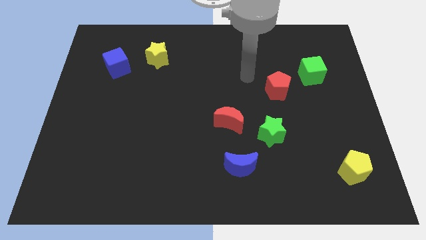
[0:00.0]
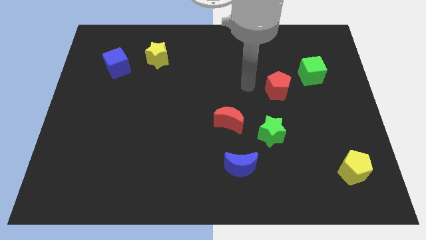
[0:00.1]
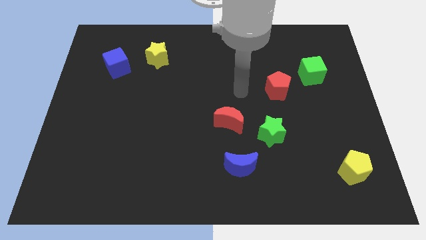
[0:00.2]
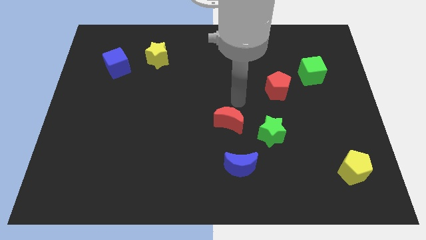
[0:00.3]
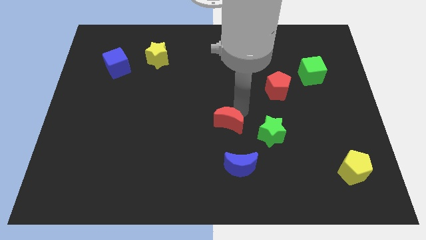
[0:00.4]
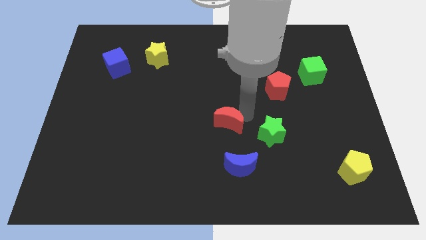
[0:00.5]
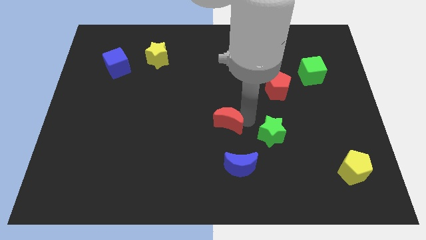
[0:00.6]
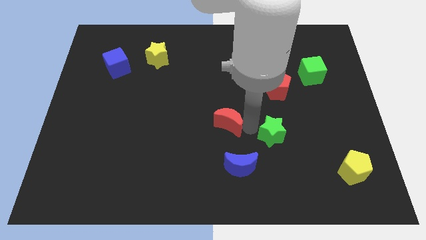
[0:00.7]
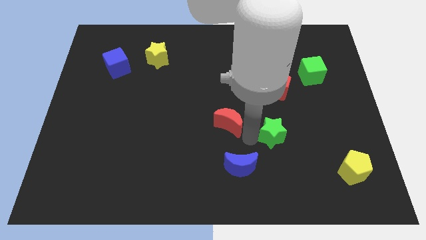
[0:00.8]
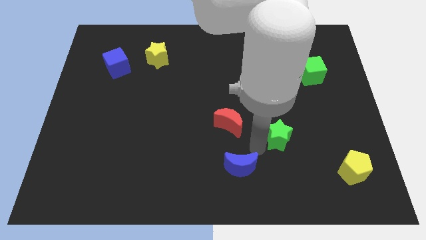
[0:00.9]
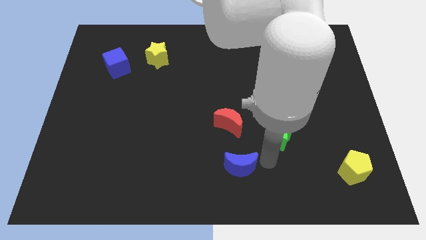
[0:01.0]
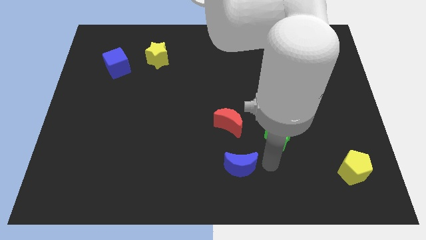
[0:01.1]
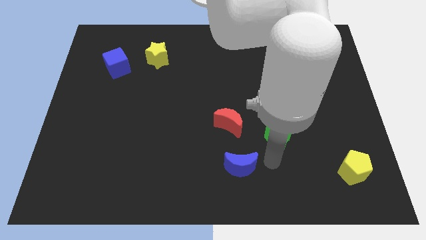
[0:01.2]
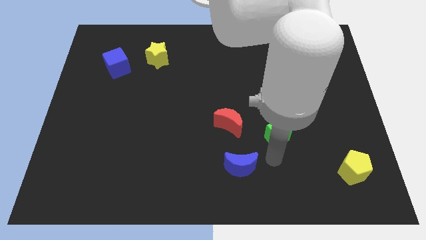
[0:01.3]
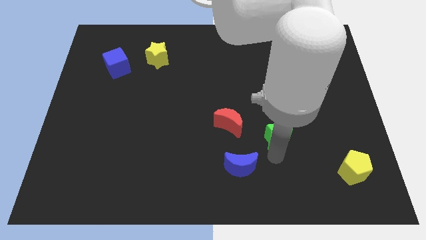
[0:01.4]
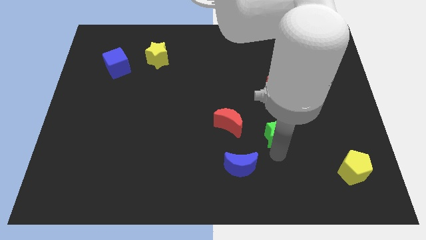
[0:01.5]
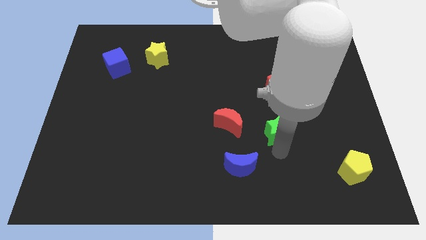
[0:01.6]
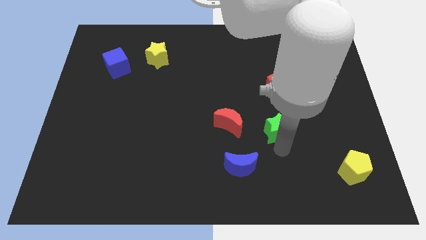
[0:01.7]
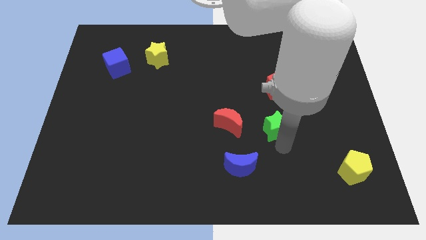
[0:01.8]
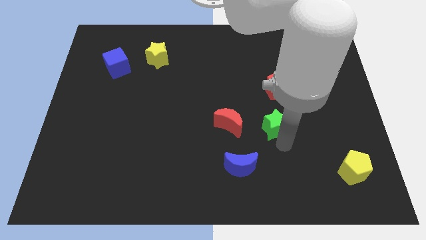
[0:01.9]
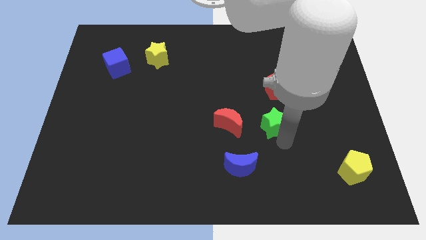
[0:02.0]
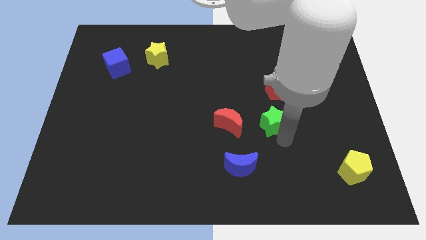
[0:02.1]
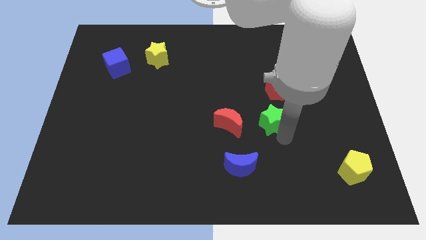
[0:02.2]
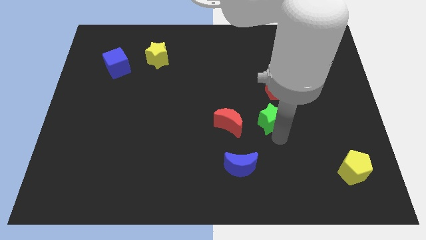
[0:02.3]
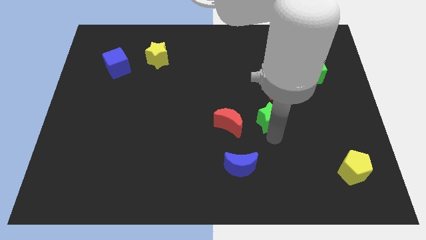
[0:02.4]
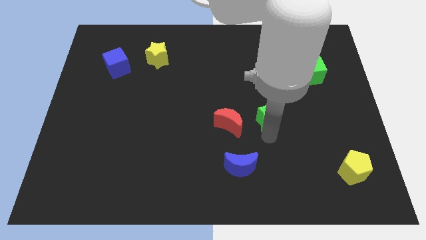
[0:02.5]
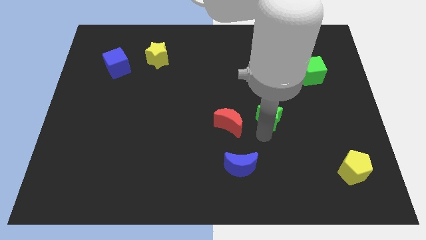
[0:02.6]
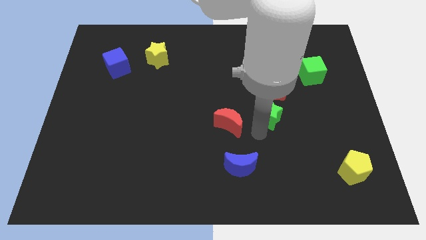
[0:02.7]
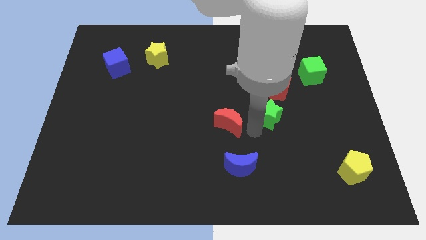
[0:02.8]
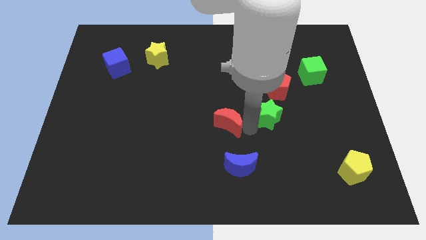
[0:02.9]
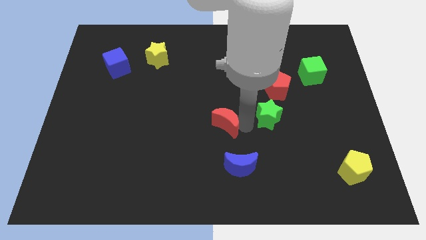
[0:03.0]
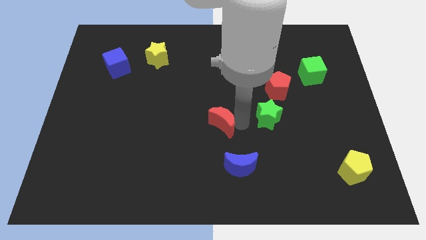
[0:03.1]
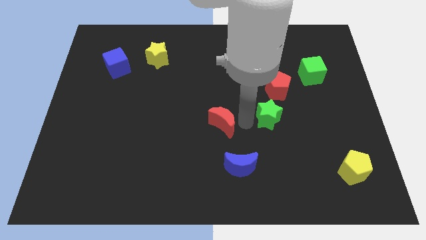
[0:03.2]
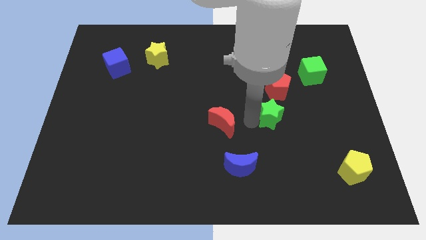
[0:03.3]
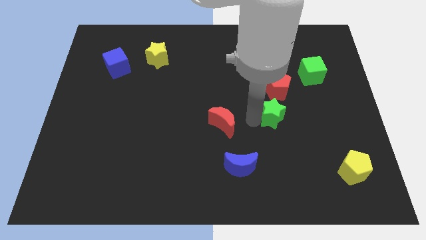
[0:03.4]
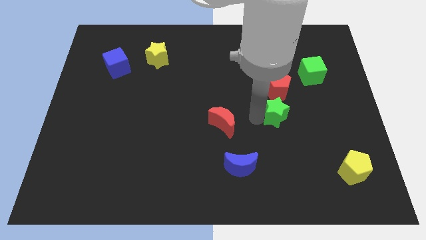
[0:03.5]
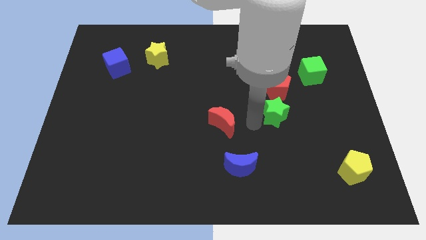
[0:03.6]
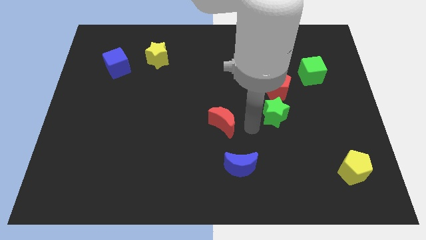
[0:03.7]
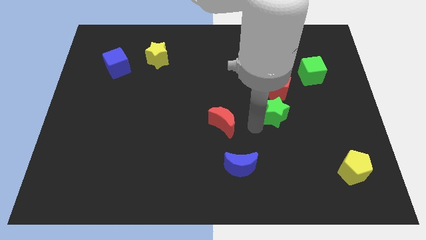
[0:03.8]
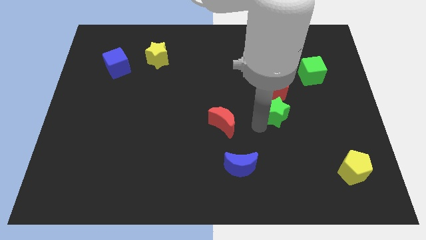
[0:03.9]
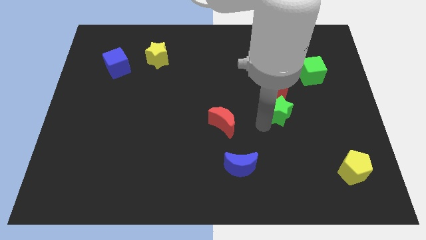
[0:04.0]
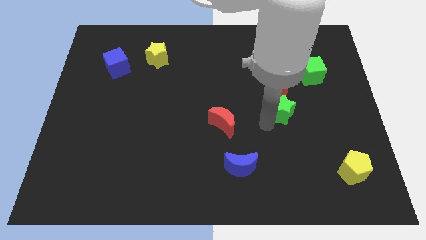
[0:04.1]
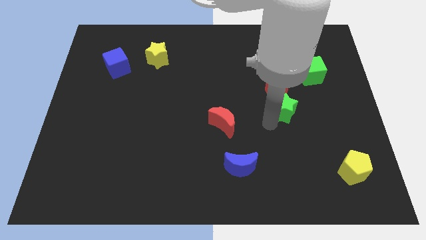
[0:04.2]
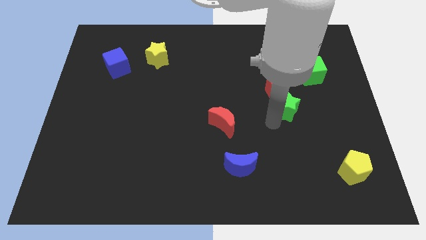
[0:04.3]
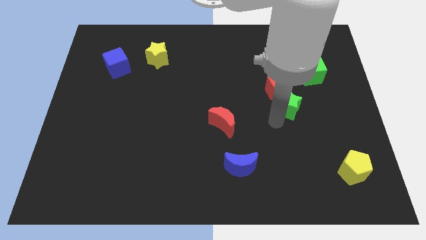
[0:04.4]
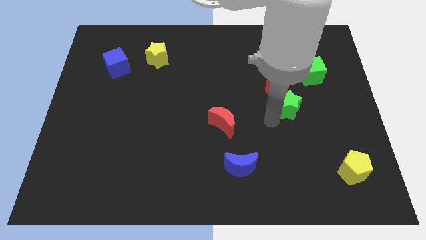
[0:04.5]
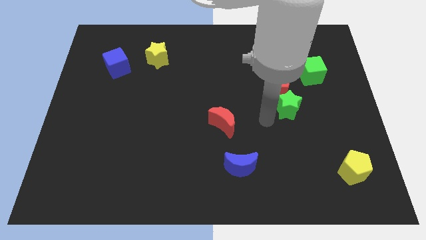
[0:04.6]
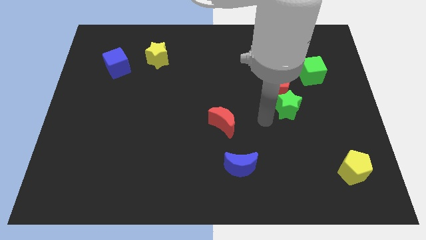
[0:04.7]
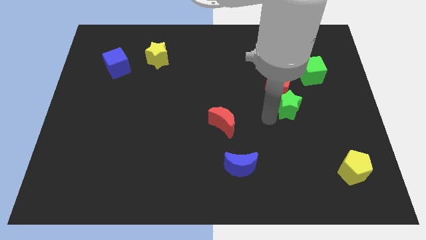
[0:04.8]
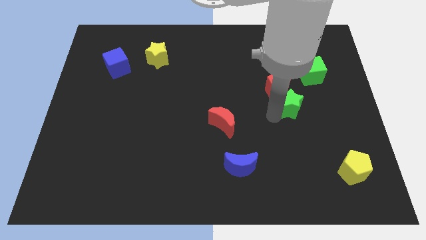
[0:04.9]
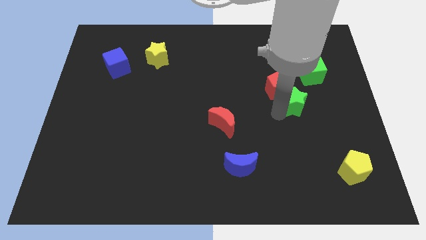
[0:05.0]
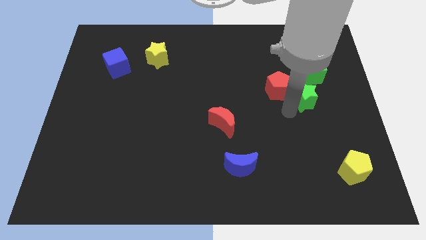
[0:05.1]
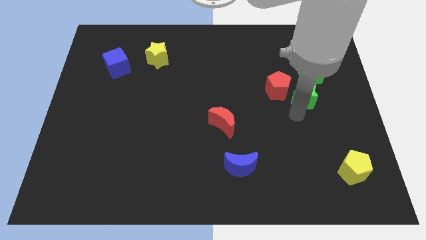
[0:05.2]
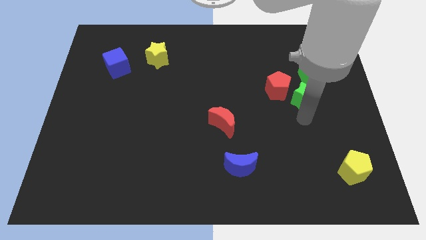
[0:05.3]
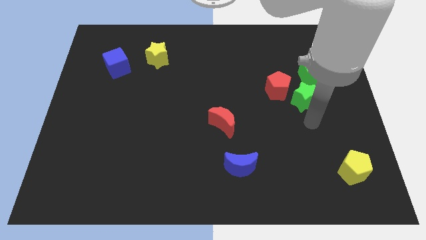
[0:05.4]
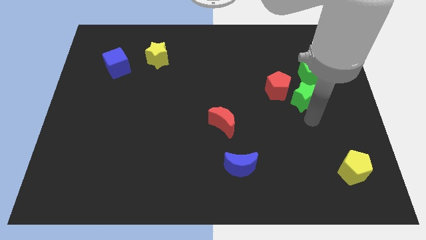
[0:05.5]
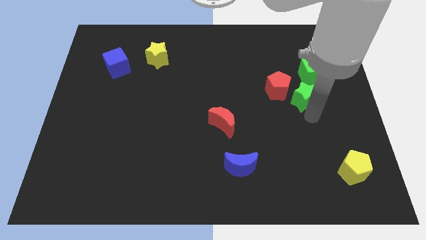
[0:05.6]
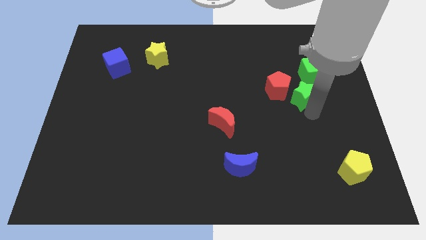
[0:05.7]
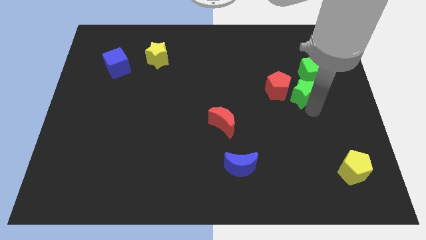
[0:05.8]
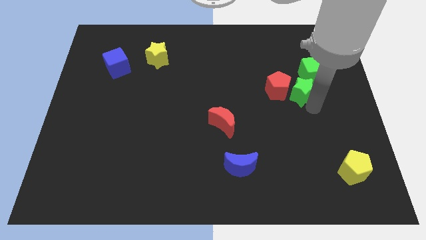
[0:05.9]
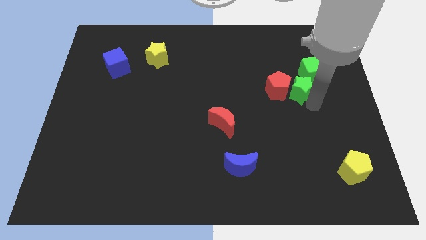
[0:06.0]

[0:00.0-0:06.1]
push the green star to the top right side of the red pentagon

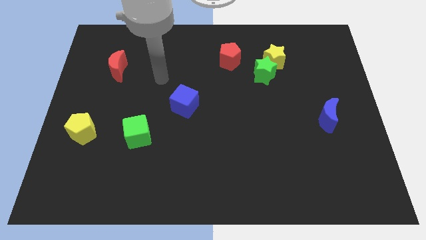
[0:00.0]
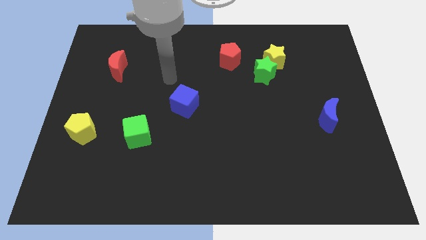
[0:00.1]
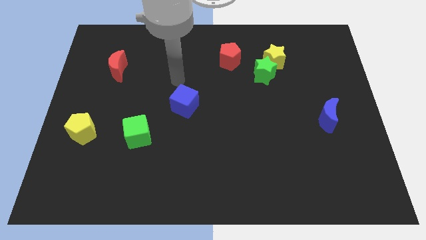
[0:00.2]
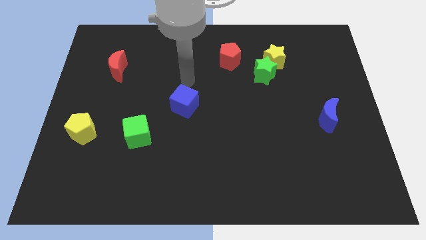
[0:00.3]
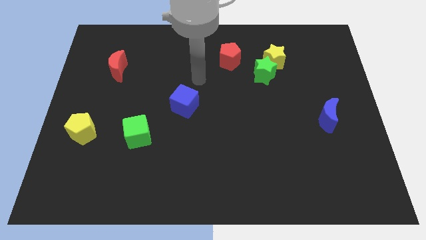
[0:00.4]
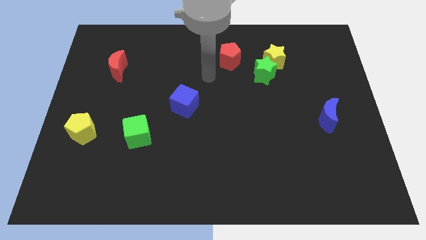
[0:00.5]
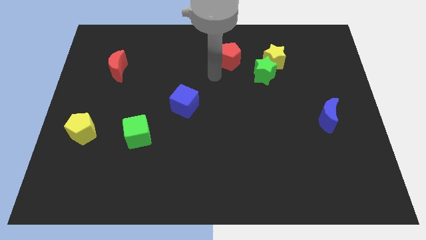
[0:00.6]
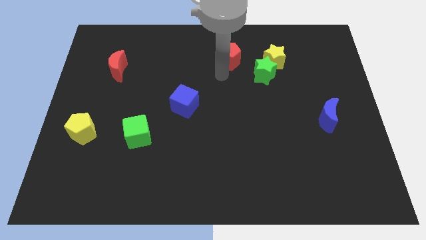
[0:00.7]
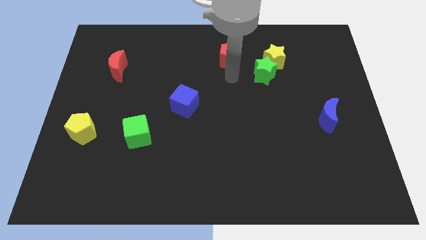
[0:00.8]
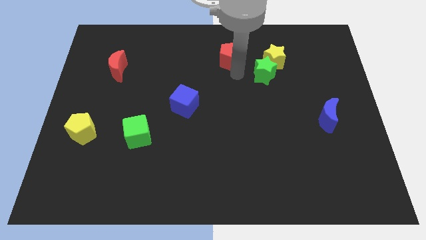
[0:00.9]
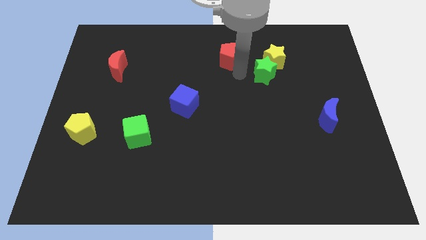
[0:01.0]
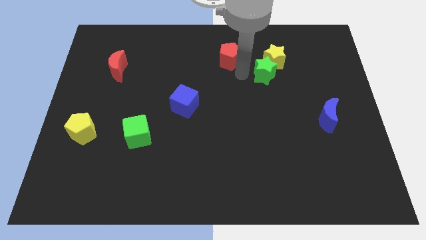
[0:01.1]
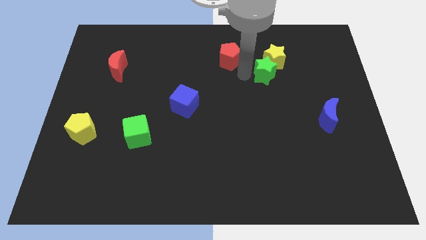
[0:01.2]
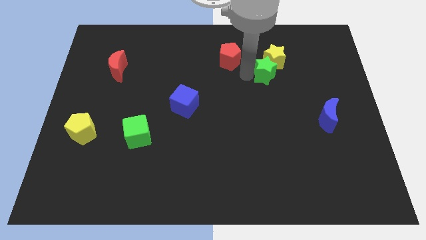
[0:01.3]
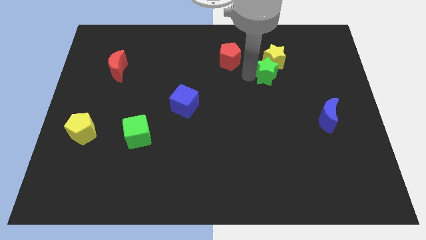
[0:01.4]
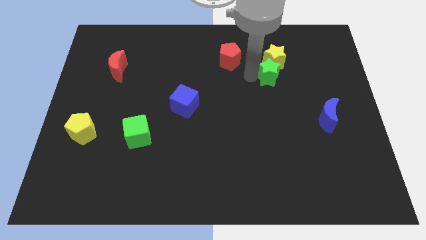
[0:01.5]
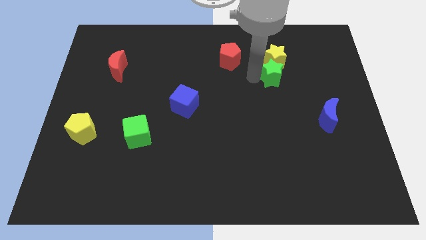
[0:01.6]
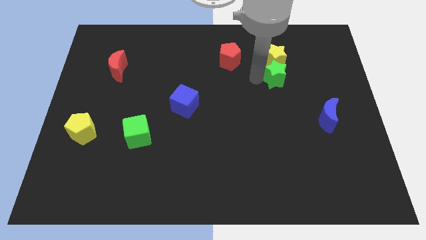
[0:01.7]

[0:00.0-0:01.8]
put the green star to the bottom right of the yellow star
